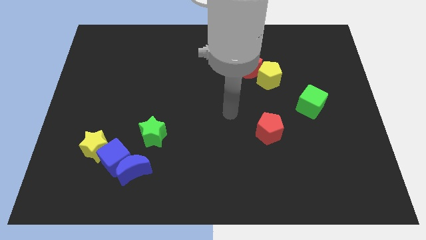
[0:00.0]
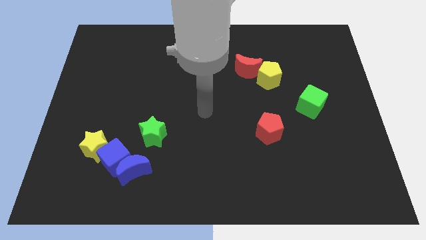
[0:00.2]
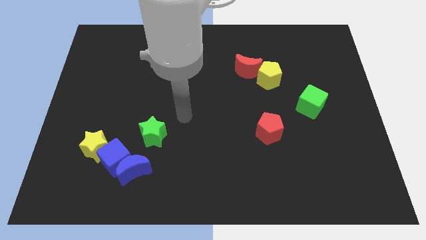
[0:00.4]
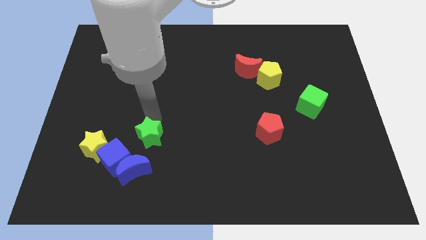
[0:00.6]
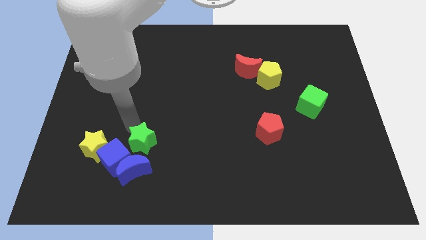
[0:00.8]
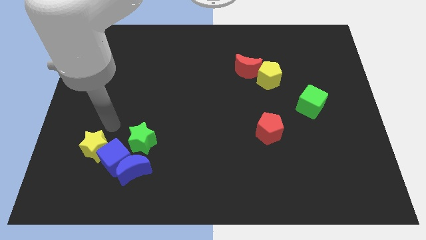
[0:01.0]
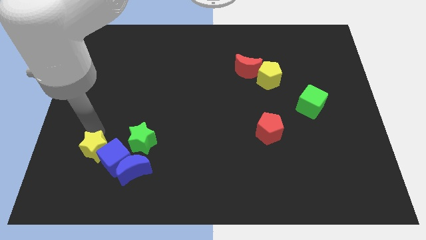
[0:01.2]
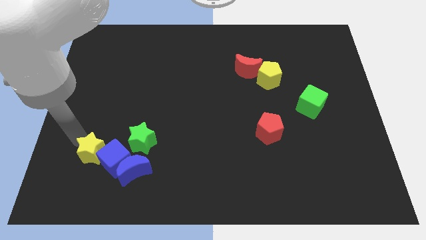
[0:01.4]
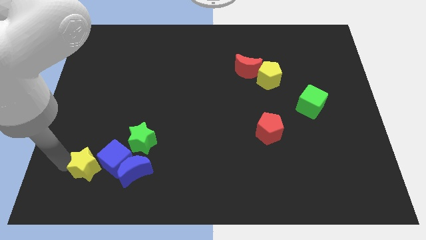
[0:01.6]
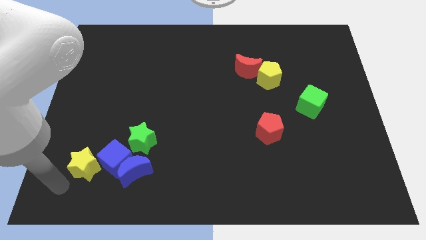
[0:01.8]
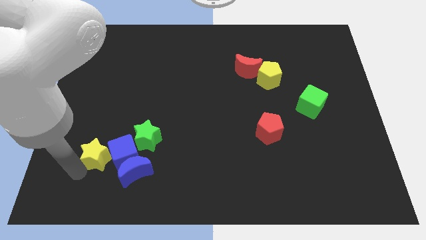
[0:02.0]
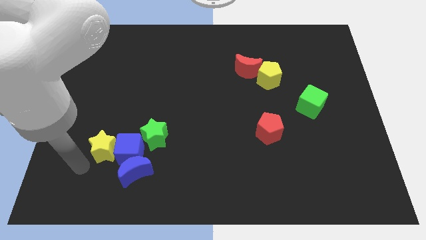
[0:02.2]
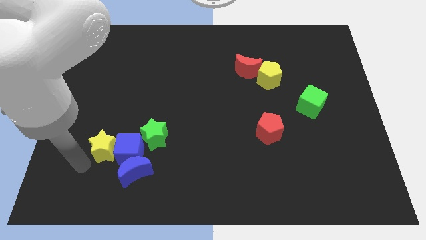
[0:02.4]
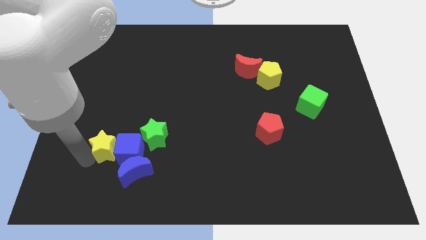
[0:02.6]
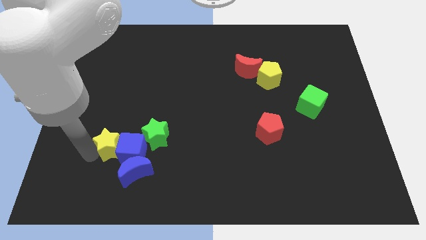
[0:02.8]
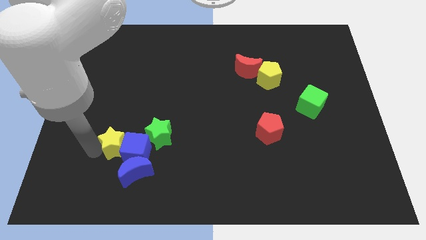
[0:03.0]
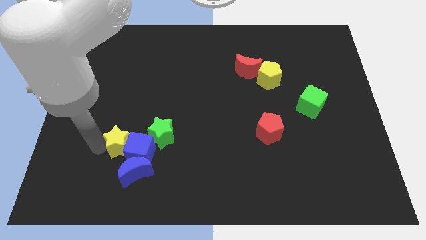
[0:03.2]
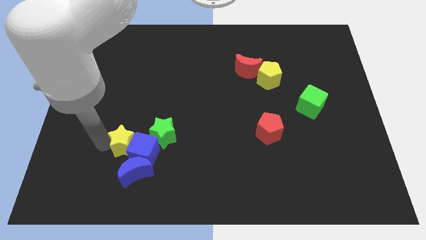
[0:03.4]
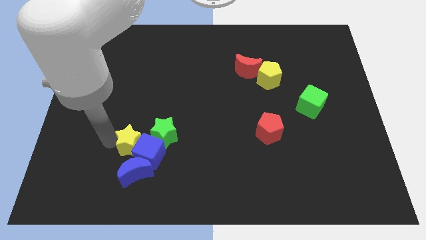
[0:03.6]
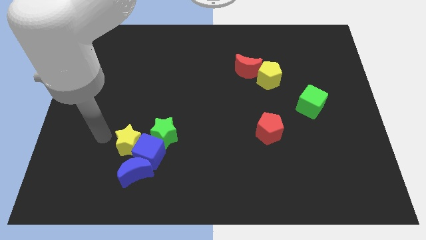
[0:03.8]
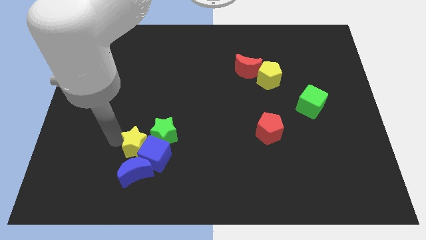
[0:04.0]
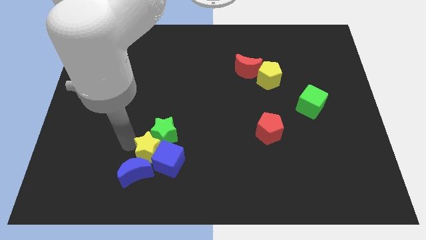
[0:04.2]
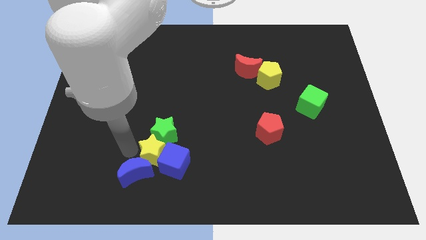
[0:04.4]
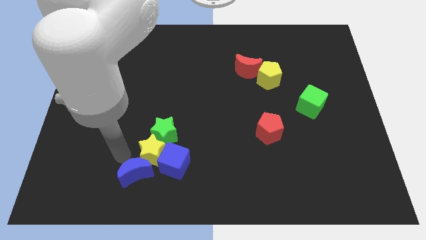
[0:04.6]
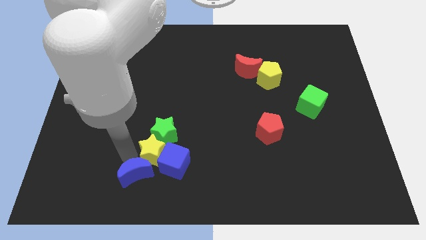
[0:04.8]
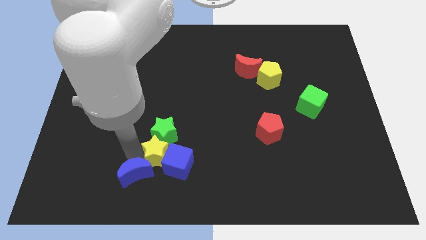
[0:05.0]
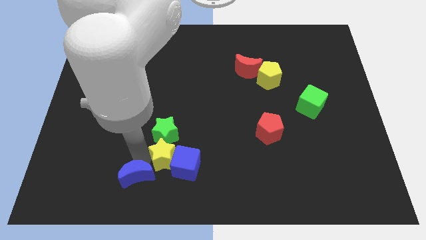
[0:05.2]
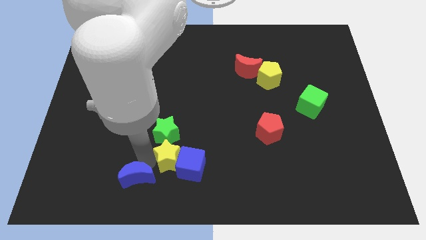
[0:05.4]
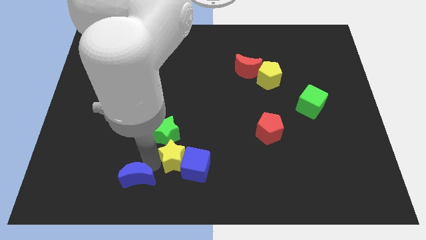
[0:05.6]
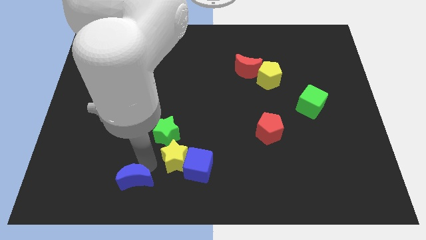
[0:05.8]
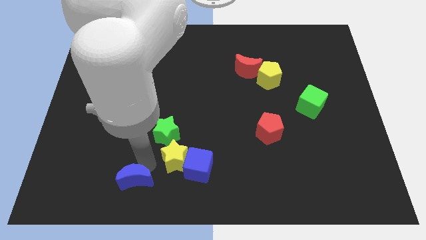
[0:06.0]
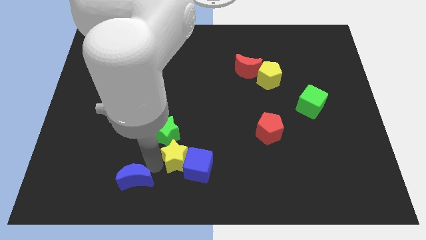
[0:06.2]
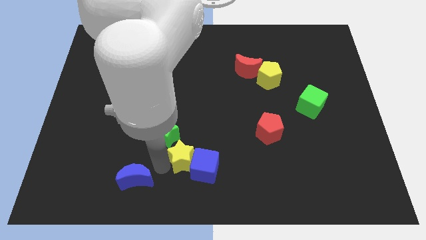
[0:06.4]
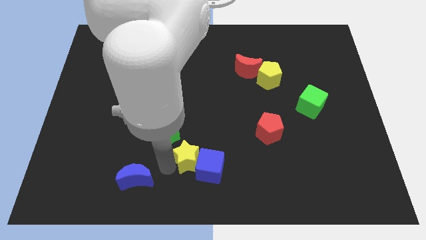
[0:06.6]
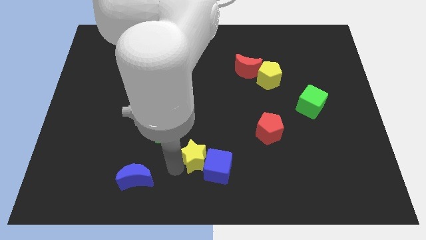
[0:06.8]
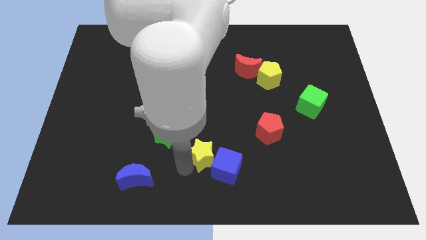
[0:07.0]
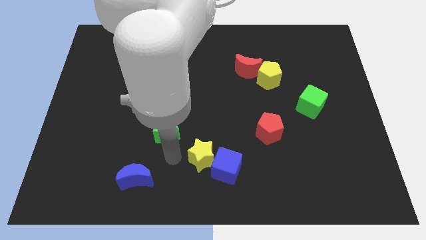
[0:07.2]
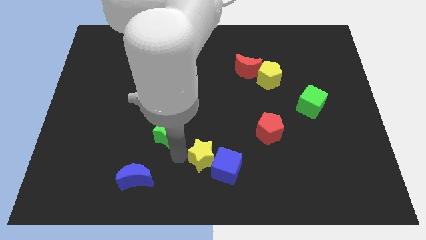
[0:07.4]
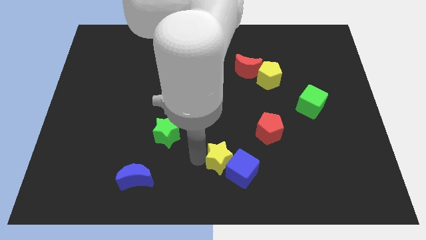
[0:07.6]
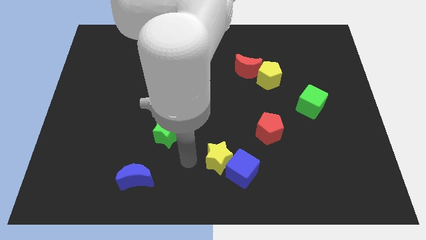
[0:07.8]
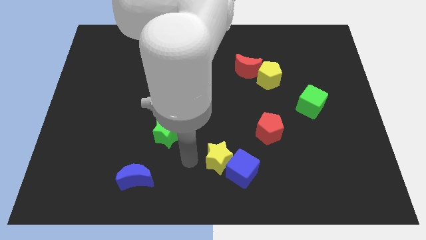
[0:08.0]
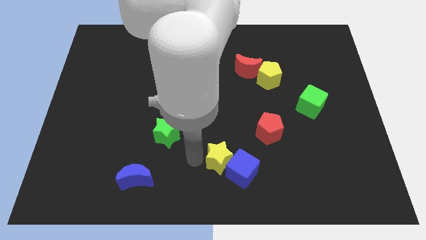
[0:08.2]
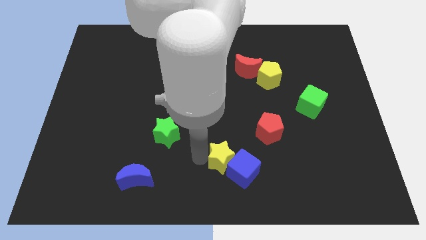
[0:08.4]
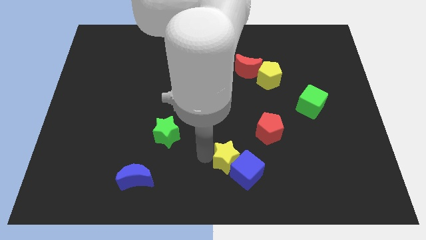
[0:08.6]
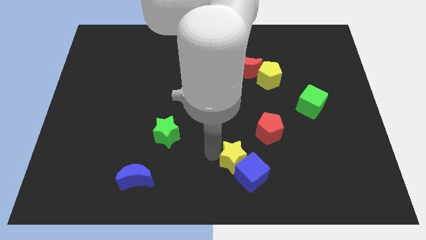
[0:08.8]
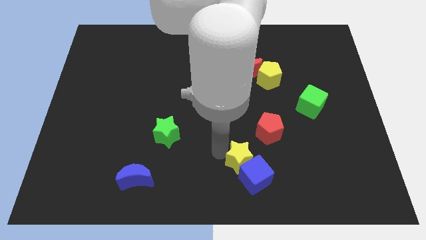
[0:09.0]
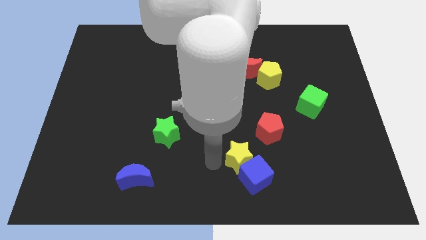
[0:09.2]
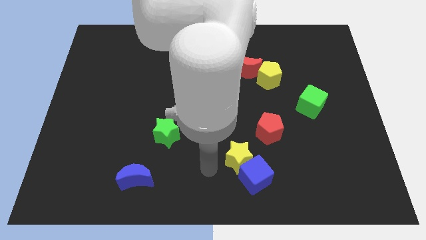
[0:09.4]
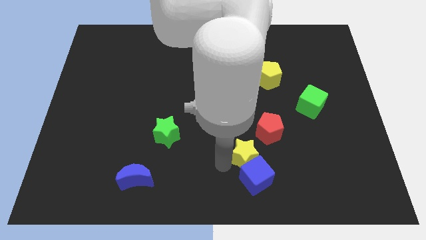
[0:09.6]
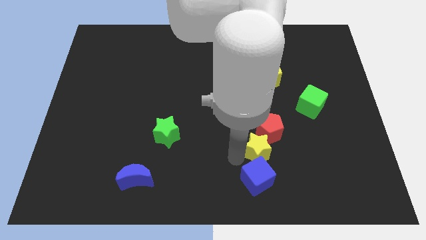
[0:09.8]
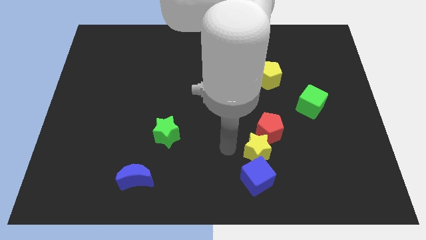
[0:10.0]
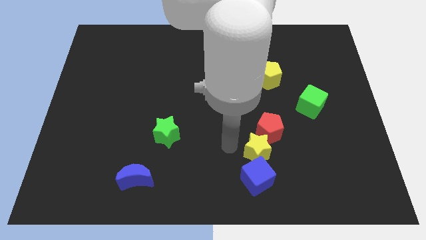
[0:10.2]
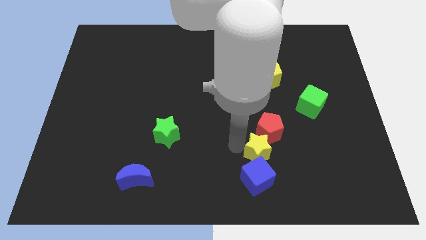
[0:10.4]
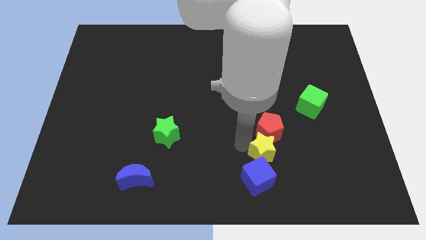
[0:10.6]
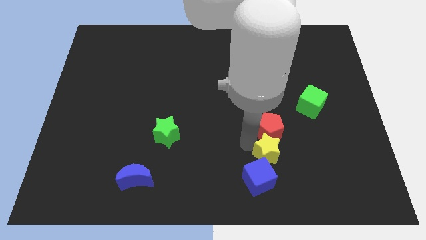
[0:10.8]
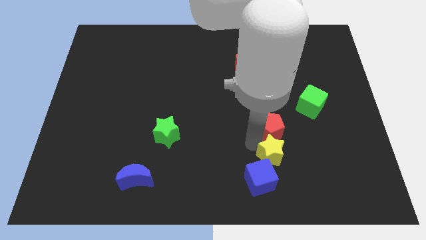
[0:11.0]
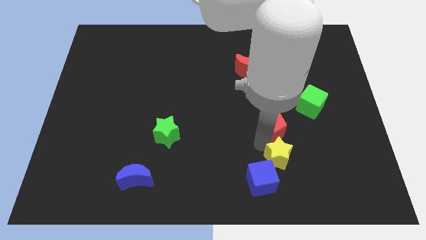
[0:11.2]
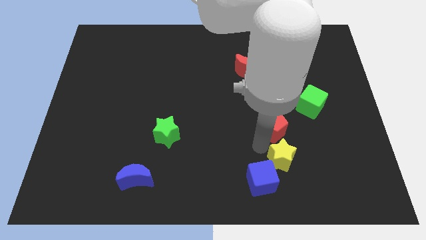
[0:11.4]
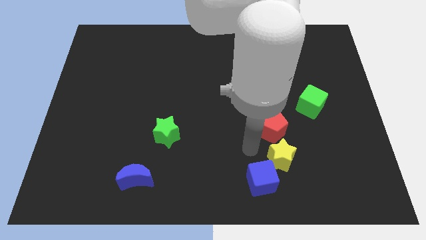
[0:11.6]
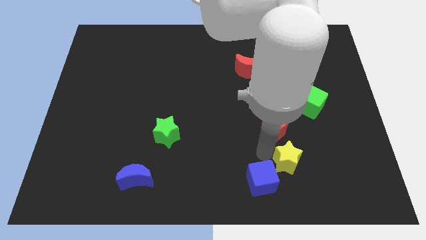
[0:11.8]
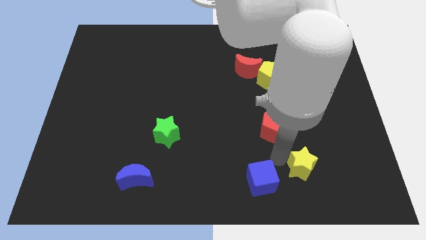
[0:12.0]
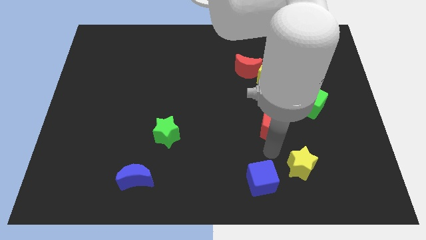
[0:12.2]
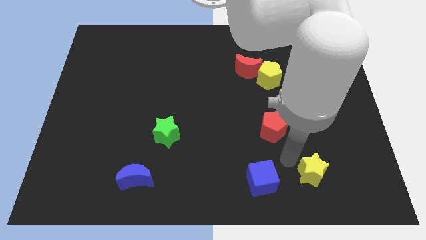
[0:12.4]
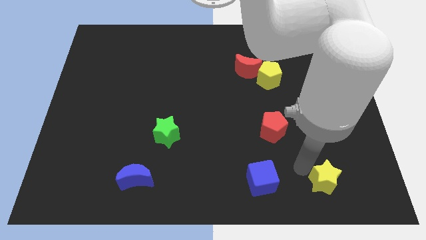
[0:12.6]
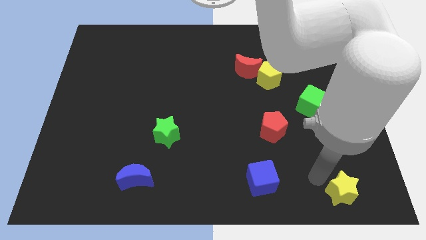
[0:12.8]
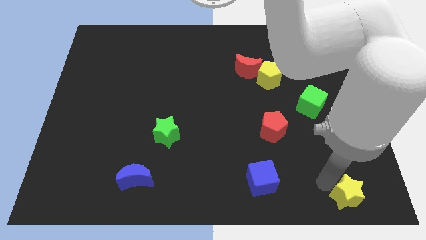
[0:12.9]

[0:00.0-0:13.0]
move the yellow star to the bottom right of the board

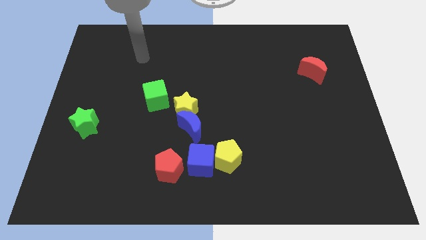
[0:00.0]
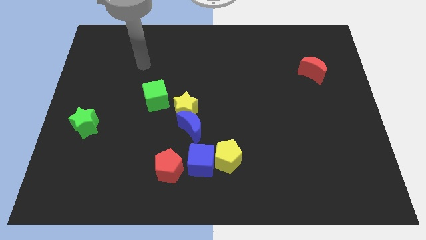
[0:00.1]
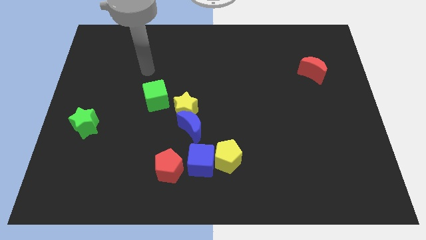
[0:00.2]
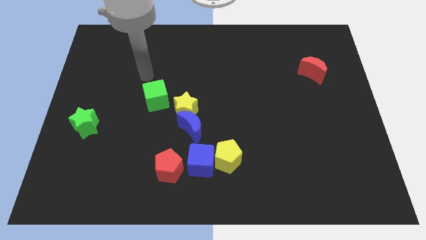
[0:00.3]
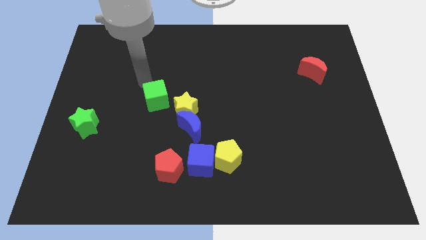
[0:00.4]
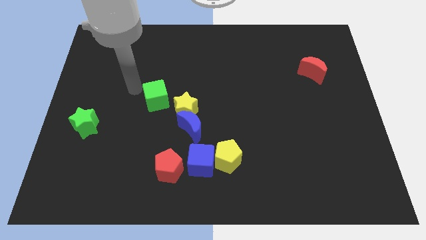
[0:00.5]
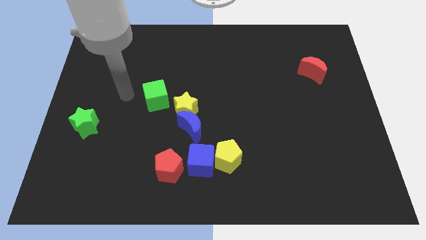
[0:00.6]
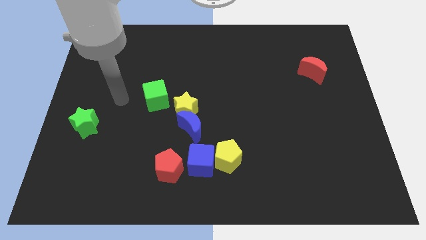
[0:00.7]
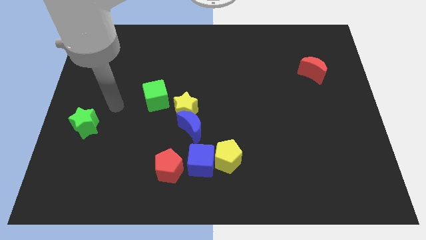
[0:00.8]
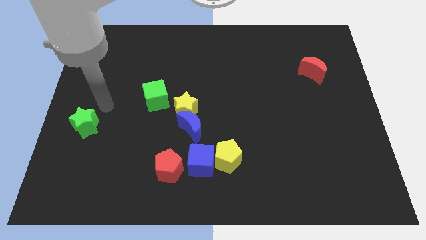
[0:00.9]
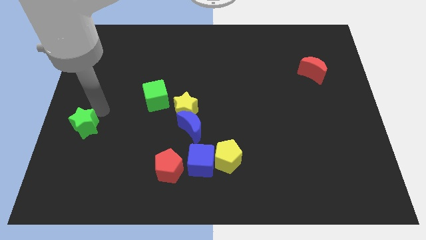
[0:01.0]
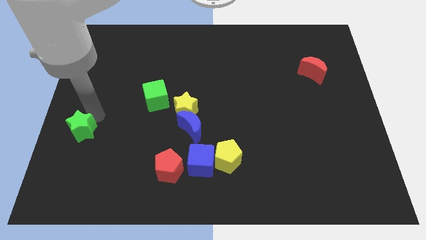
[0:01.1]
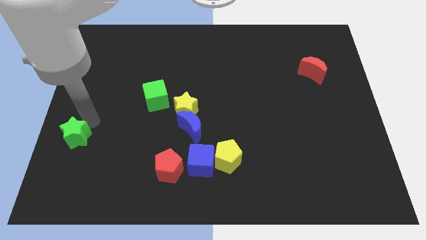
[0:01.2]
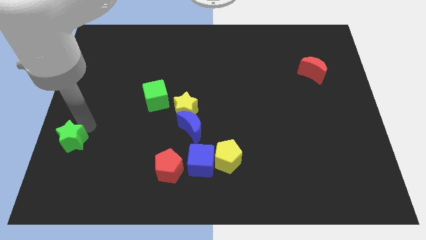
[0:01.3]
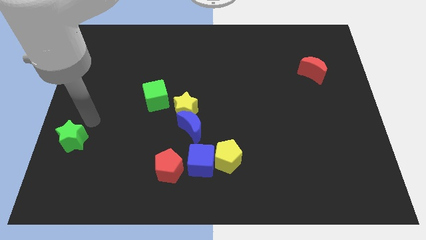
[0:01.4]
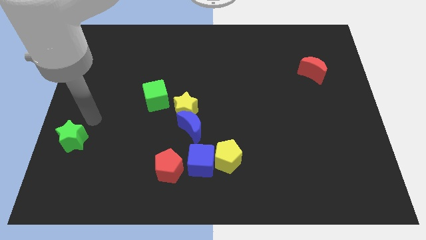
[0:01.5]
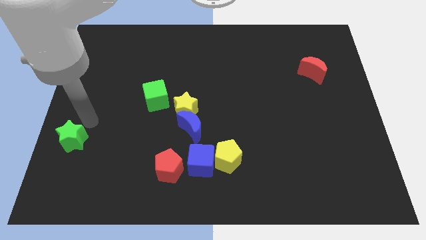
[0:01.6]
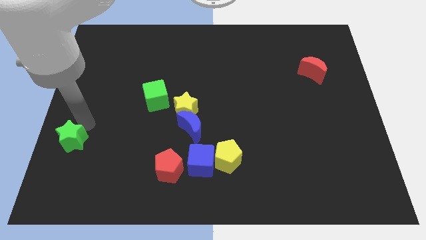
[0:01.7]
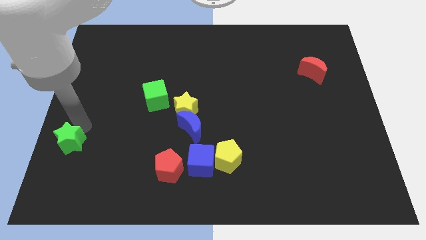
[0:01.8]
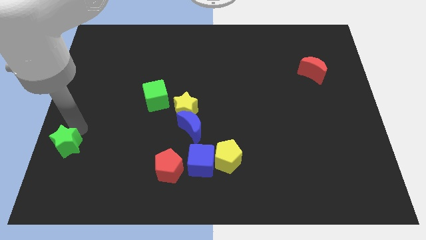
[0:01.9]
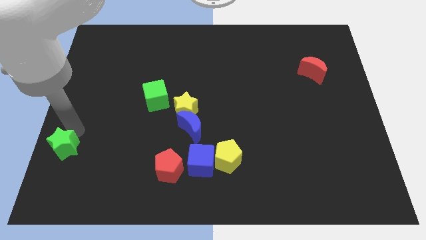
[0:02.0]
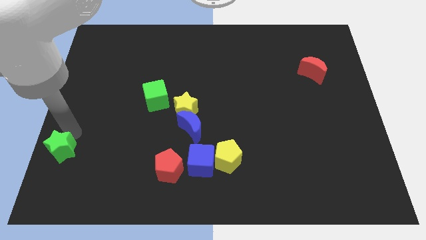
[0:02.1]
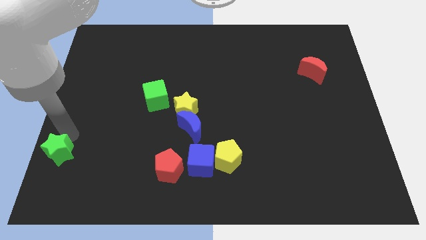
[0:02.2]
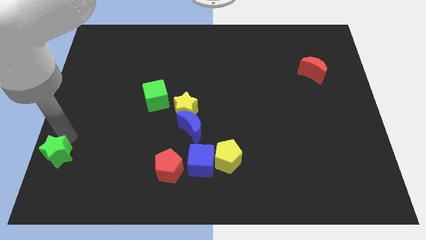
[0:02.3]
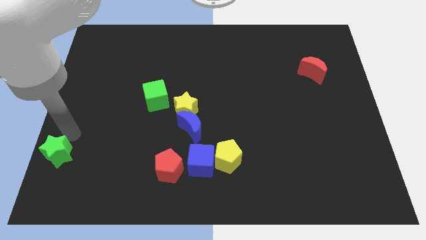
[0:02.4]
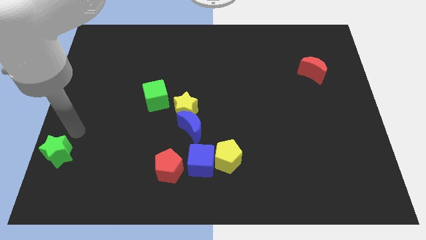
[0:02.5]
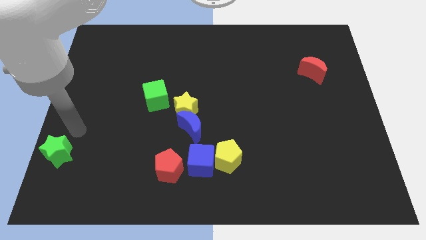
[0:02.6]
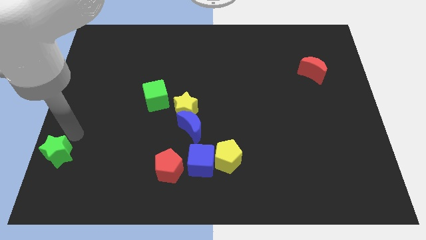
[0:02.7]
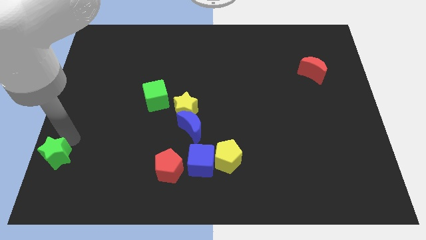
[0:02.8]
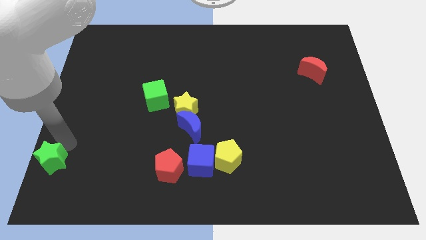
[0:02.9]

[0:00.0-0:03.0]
put the green star to the bottom left of the board
